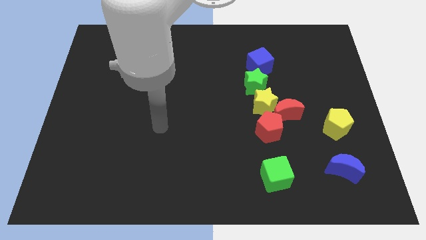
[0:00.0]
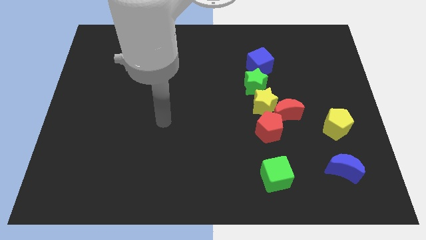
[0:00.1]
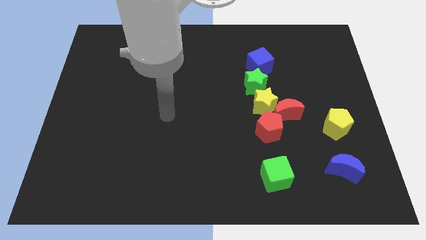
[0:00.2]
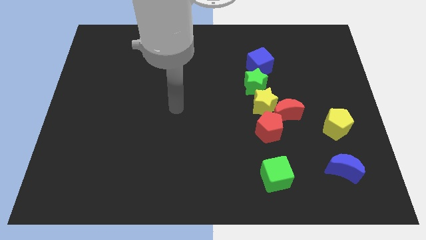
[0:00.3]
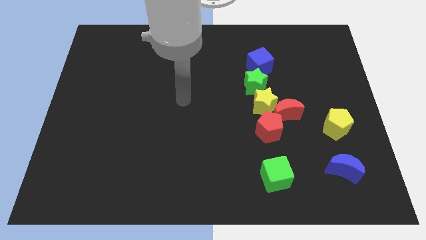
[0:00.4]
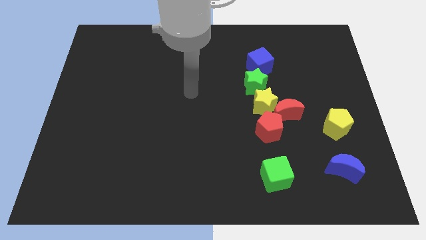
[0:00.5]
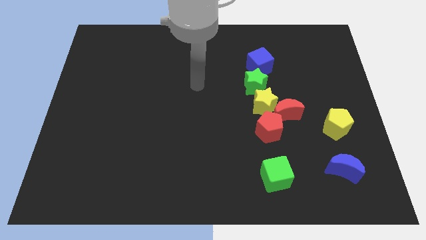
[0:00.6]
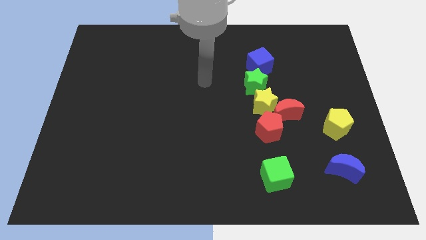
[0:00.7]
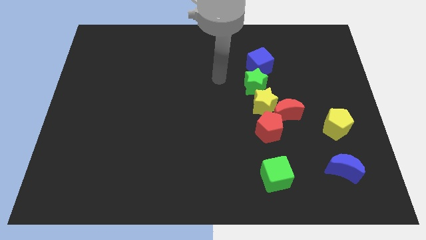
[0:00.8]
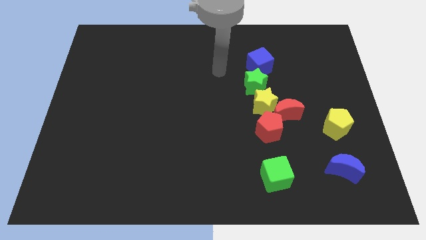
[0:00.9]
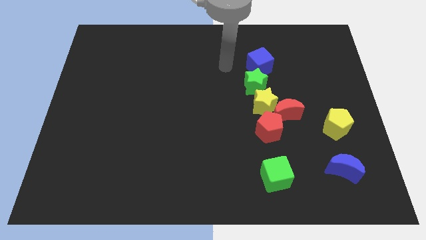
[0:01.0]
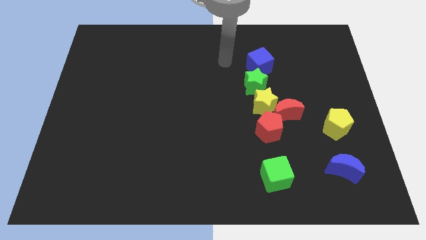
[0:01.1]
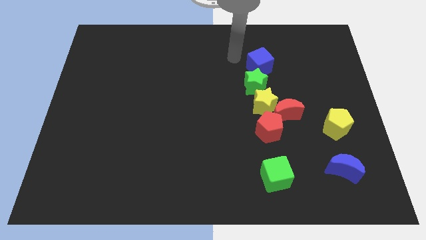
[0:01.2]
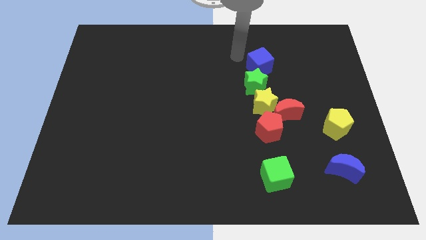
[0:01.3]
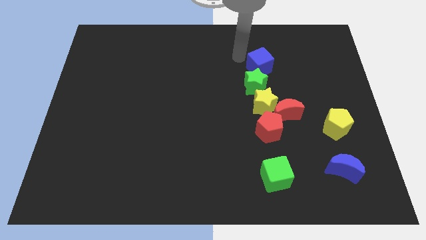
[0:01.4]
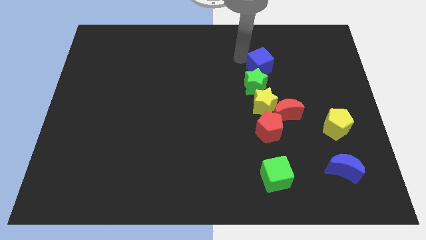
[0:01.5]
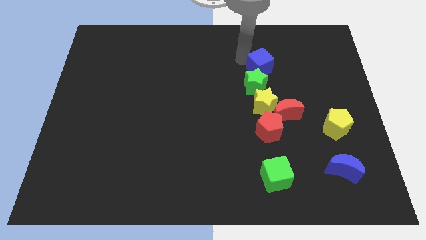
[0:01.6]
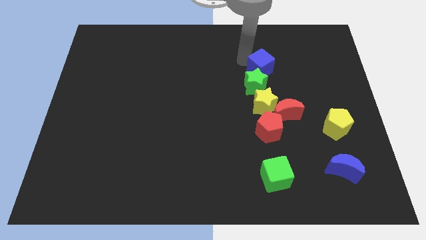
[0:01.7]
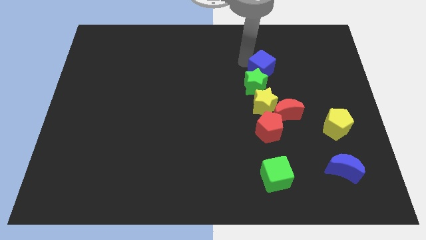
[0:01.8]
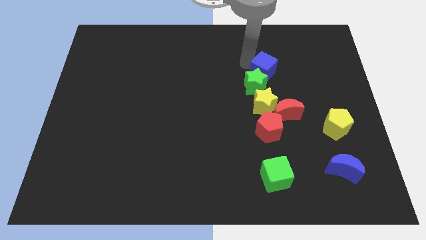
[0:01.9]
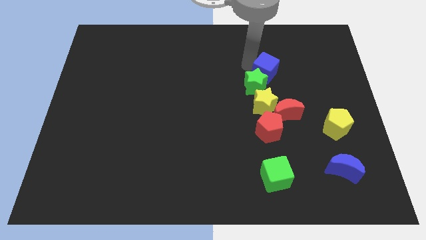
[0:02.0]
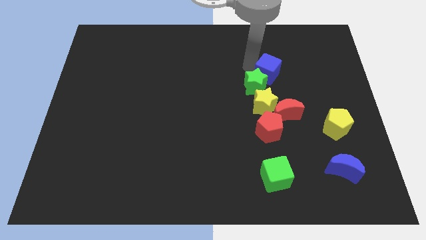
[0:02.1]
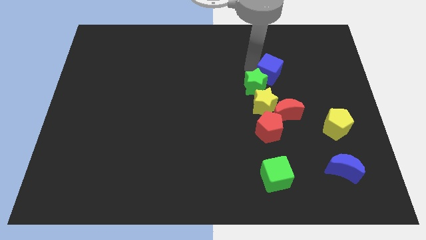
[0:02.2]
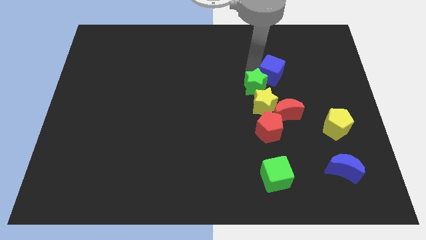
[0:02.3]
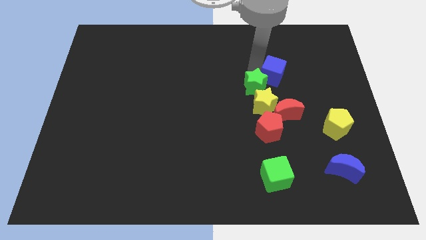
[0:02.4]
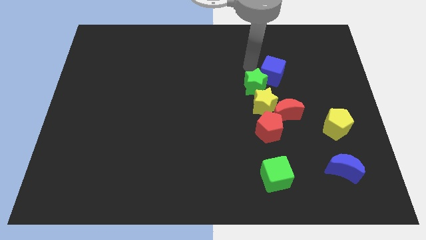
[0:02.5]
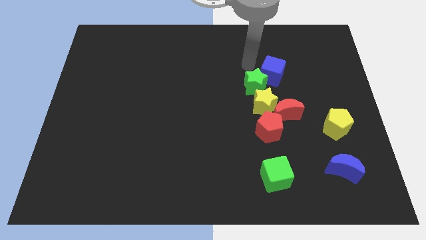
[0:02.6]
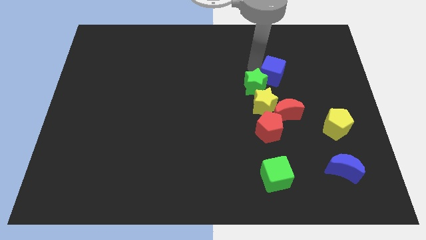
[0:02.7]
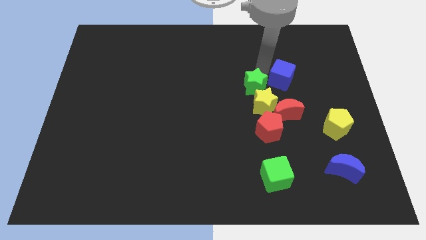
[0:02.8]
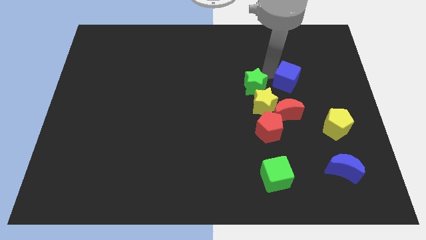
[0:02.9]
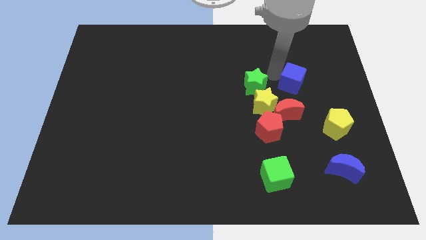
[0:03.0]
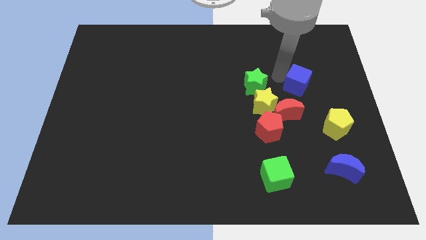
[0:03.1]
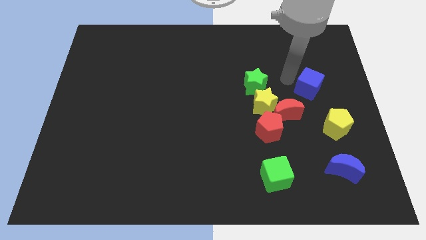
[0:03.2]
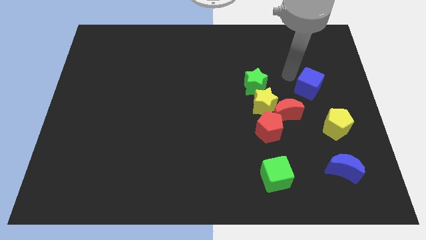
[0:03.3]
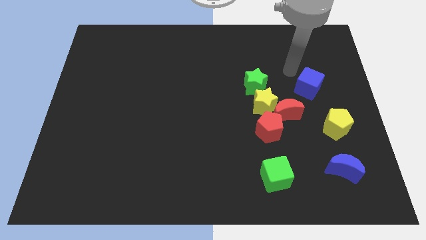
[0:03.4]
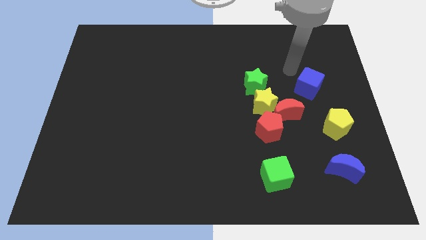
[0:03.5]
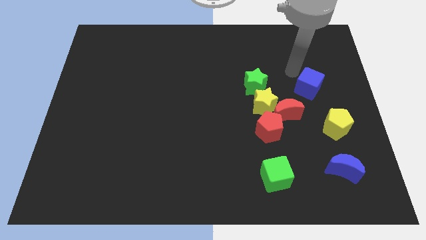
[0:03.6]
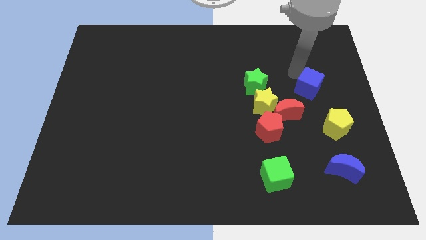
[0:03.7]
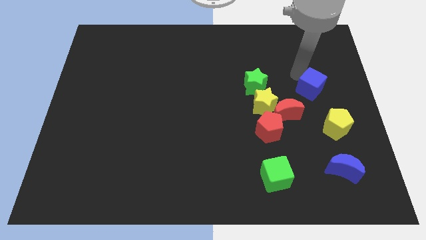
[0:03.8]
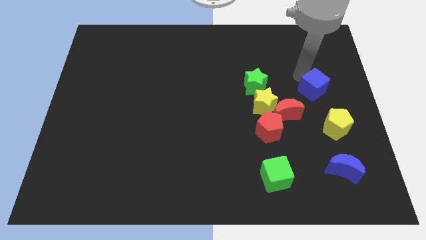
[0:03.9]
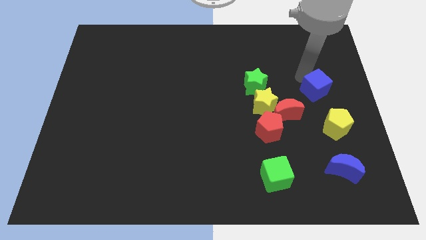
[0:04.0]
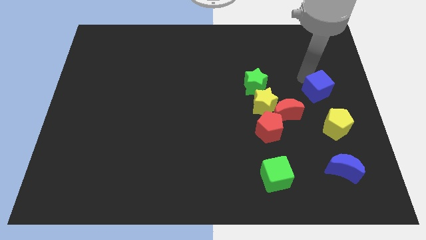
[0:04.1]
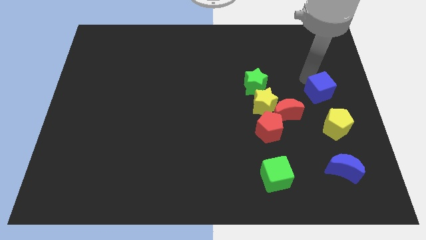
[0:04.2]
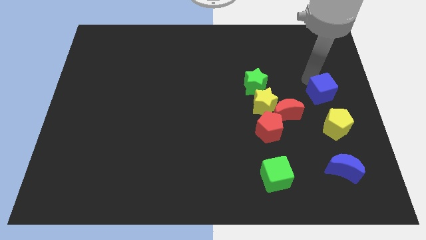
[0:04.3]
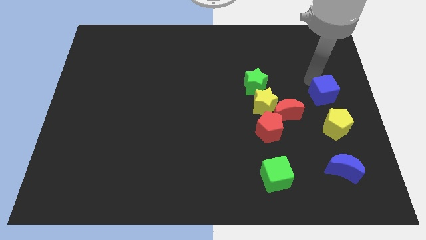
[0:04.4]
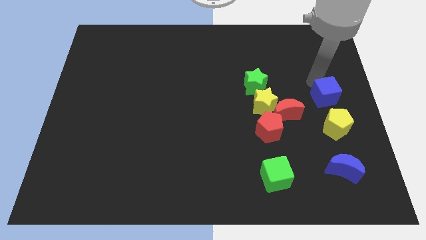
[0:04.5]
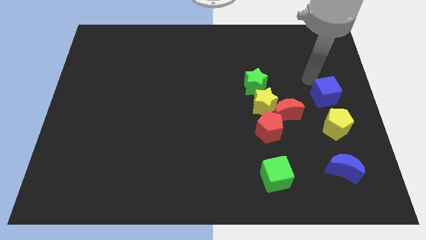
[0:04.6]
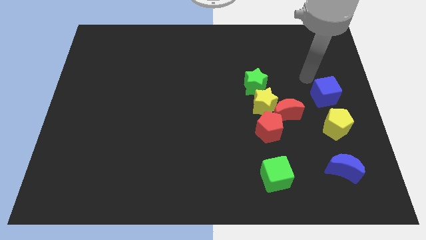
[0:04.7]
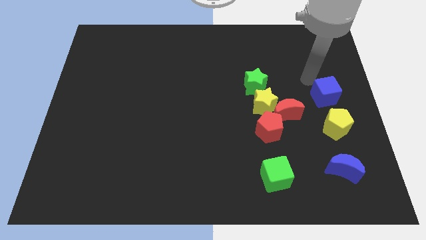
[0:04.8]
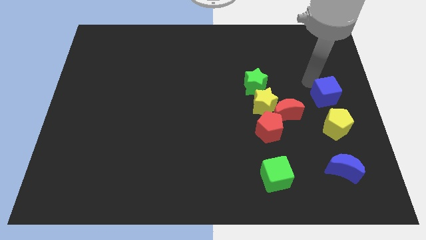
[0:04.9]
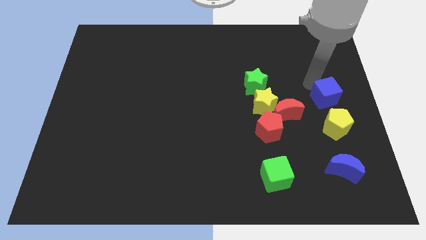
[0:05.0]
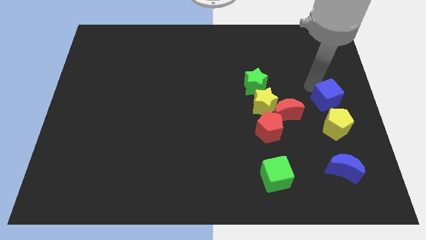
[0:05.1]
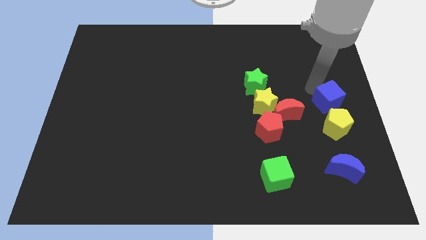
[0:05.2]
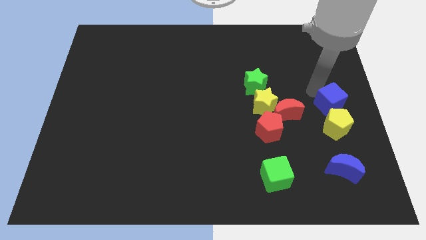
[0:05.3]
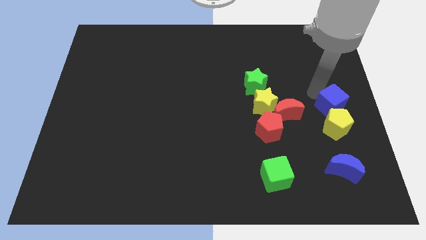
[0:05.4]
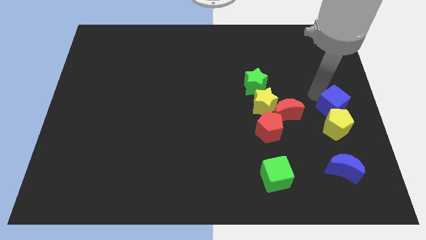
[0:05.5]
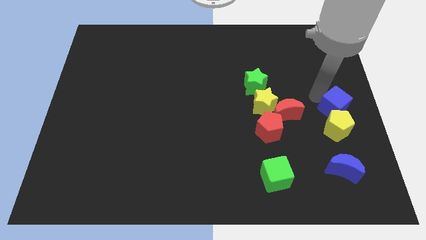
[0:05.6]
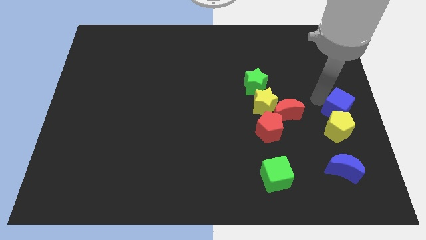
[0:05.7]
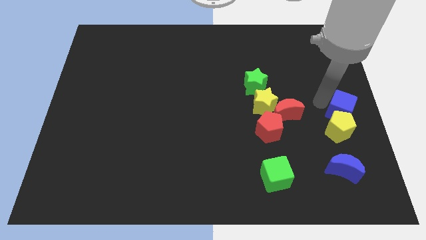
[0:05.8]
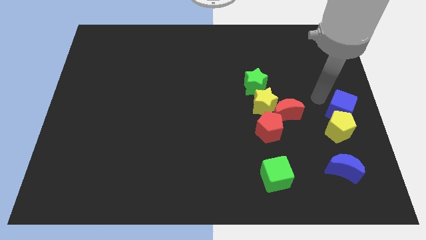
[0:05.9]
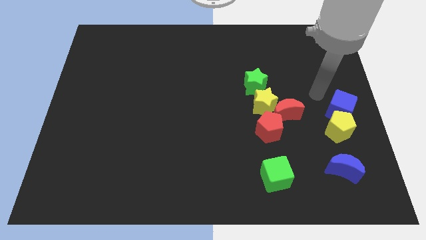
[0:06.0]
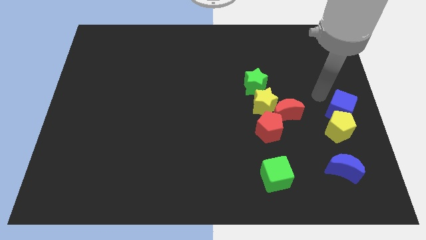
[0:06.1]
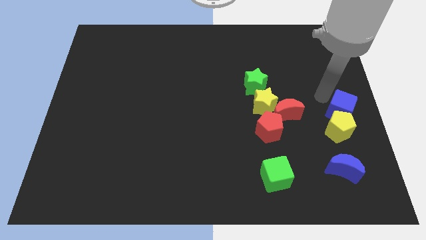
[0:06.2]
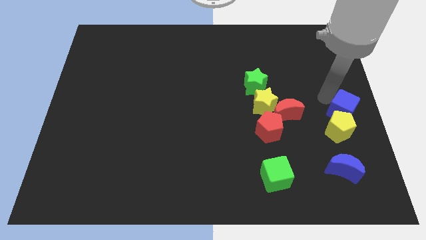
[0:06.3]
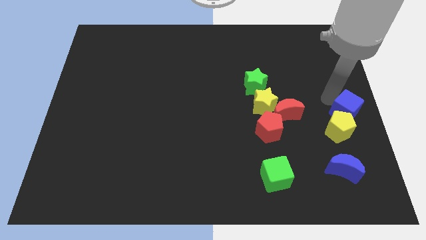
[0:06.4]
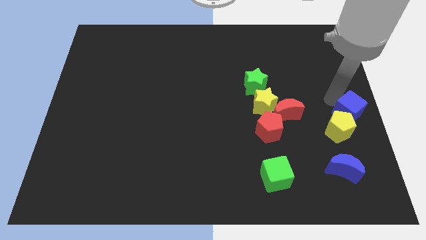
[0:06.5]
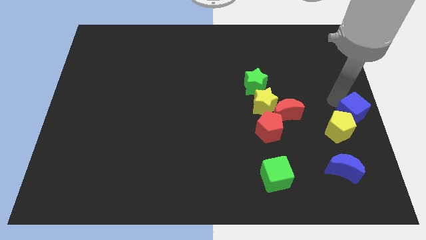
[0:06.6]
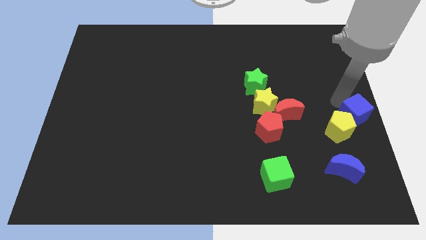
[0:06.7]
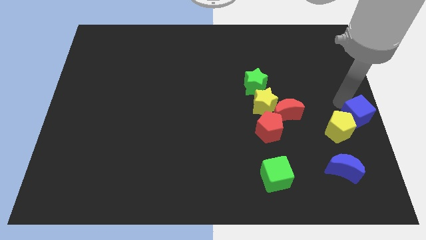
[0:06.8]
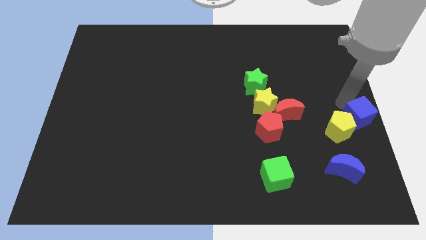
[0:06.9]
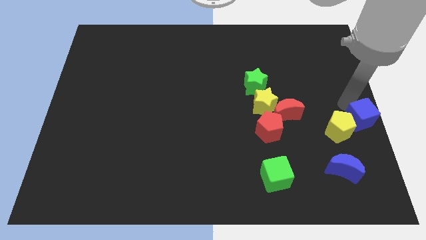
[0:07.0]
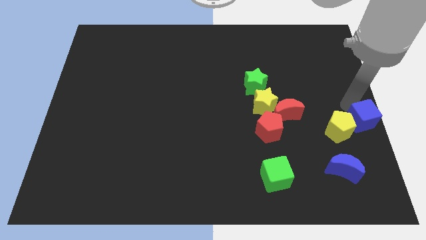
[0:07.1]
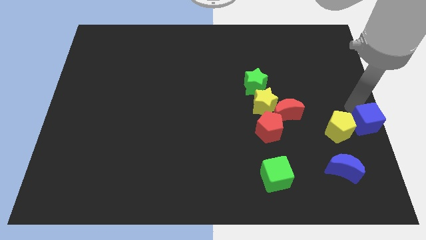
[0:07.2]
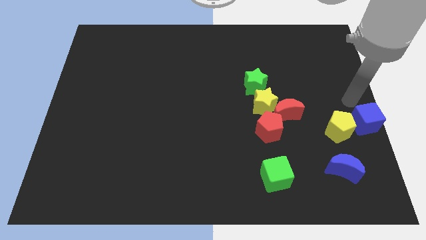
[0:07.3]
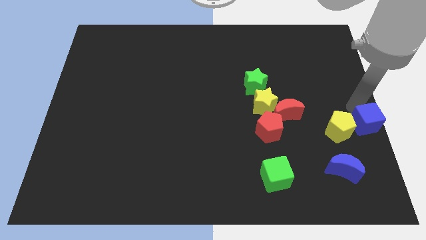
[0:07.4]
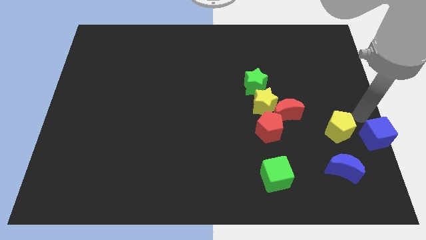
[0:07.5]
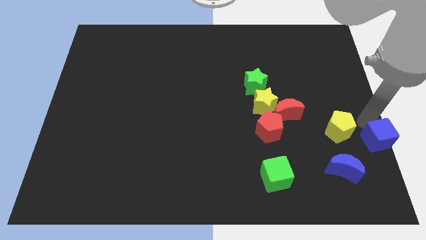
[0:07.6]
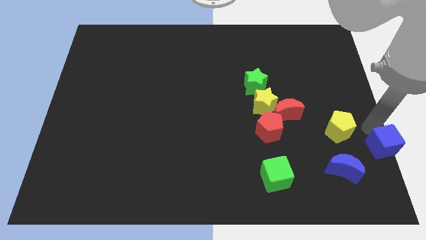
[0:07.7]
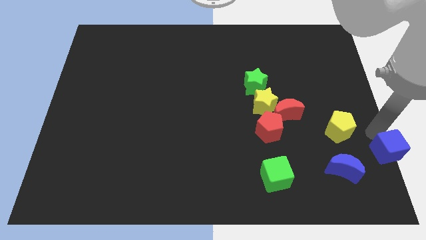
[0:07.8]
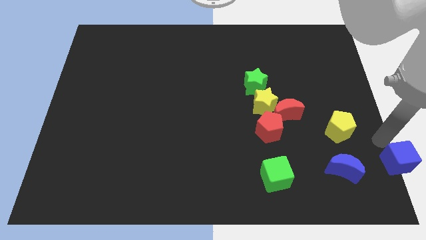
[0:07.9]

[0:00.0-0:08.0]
put the blue cube to the bottom right of the board
